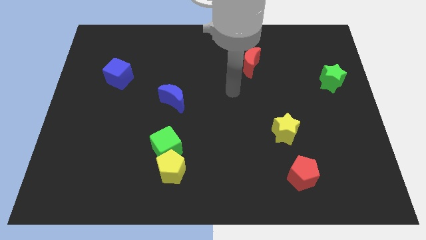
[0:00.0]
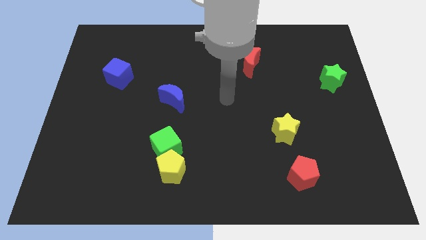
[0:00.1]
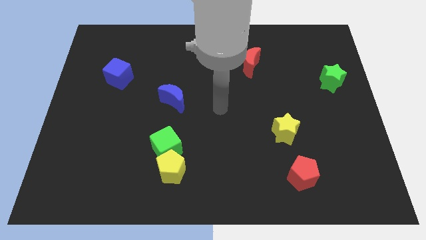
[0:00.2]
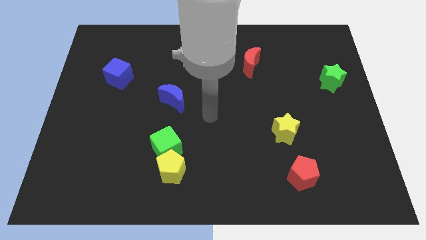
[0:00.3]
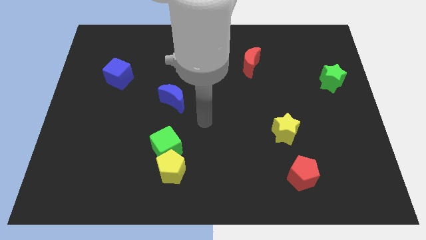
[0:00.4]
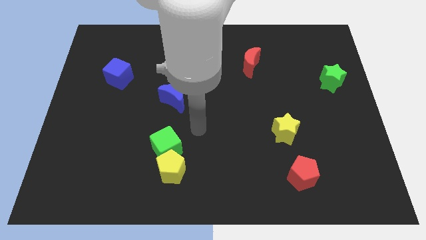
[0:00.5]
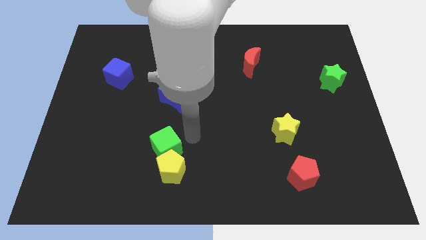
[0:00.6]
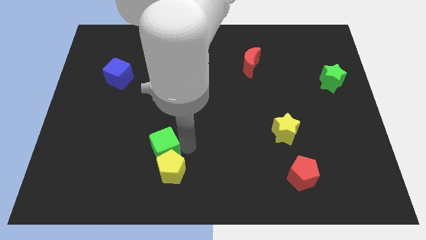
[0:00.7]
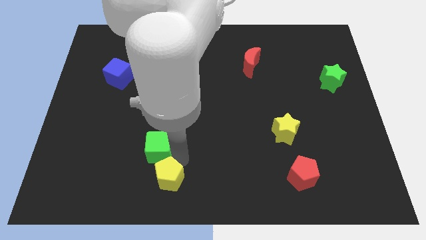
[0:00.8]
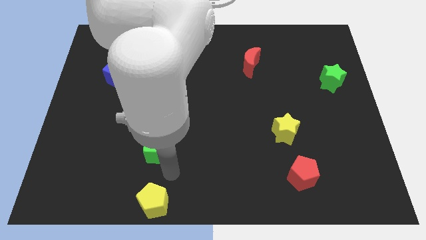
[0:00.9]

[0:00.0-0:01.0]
pull the green cube apart from the yellow pentagon

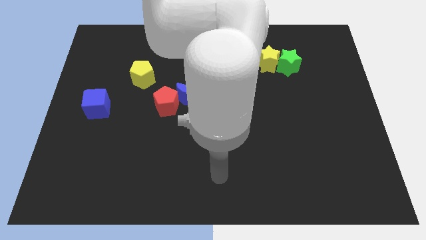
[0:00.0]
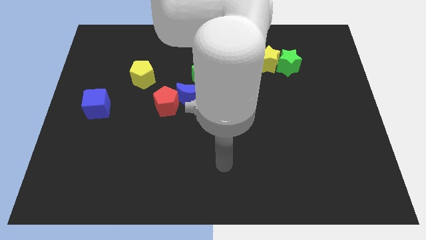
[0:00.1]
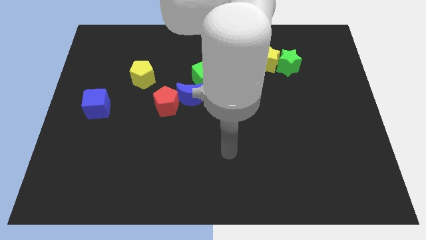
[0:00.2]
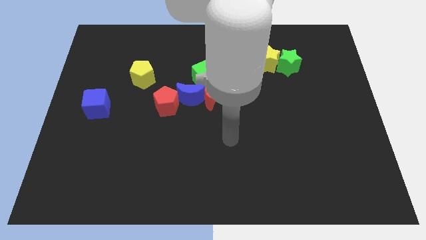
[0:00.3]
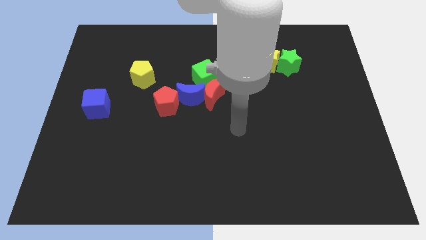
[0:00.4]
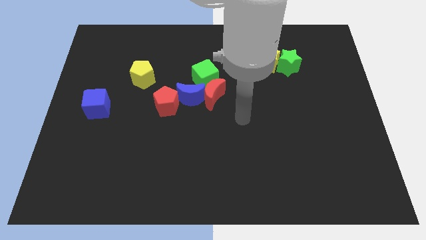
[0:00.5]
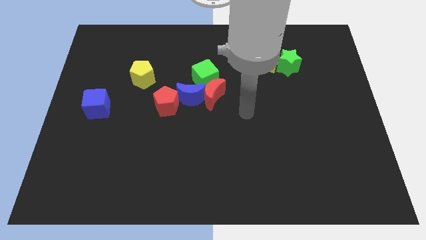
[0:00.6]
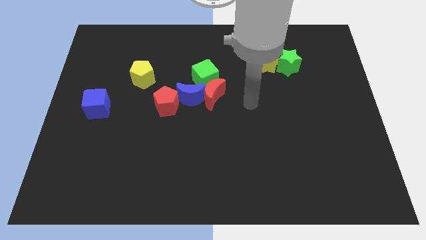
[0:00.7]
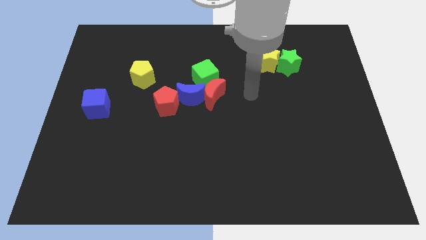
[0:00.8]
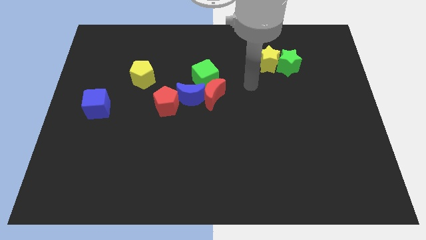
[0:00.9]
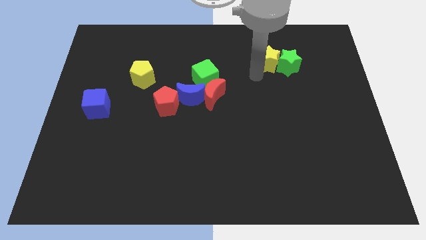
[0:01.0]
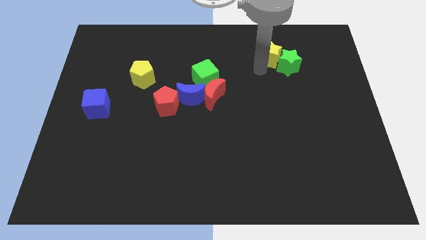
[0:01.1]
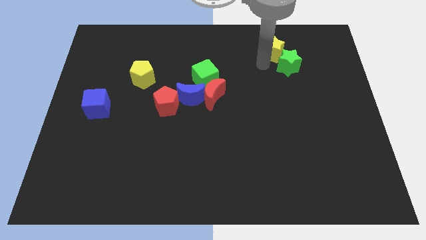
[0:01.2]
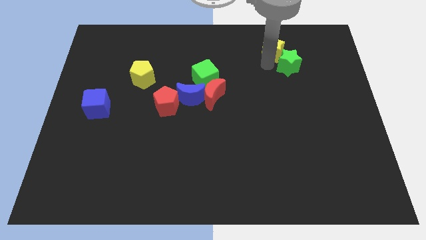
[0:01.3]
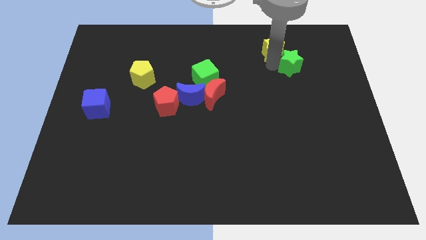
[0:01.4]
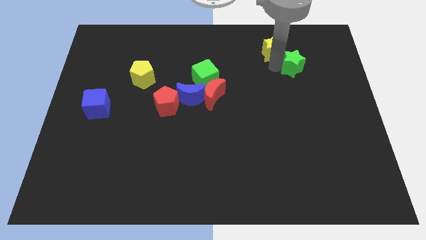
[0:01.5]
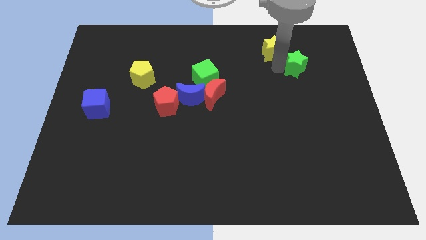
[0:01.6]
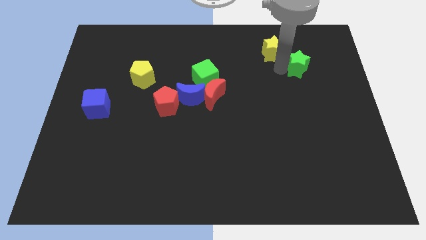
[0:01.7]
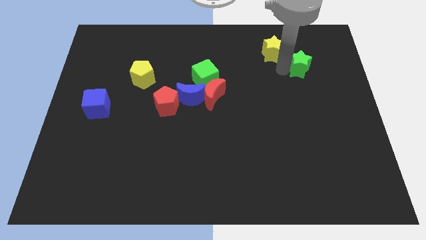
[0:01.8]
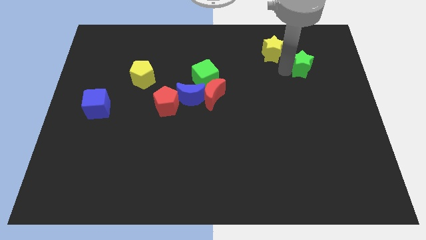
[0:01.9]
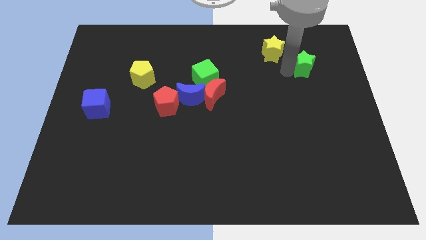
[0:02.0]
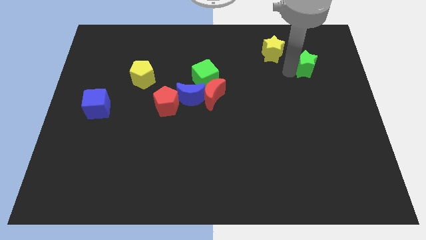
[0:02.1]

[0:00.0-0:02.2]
separate the green star from the yellow star

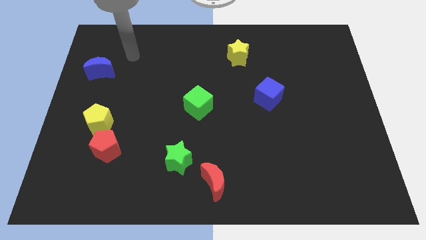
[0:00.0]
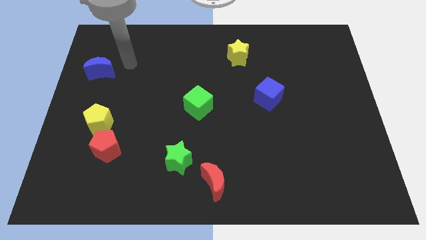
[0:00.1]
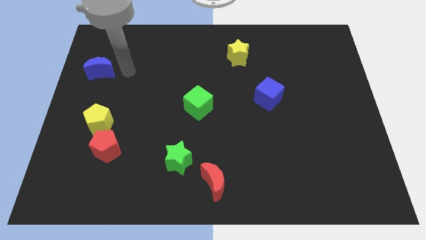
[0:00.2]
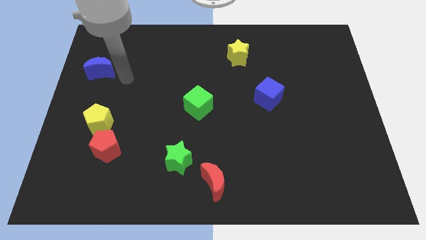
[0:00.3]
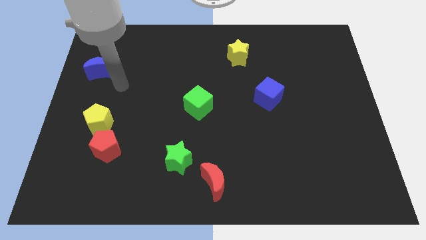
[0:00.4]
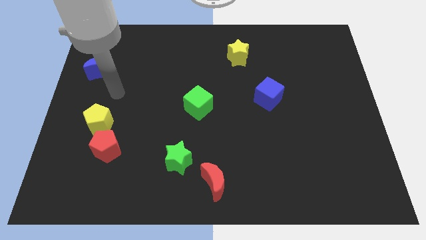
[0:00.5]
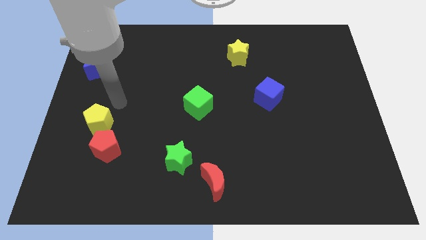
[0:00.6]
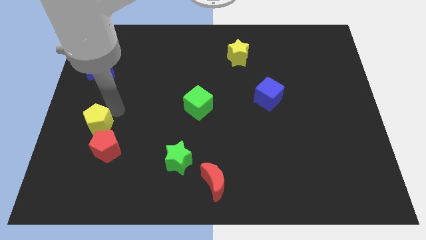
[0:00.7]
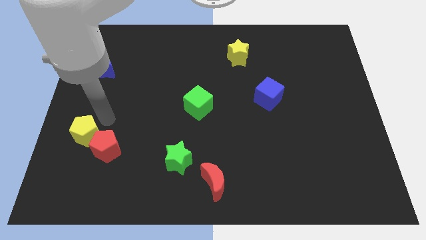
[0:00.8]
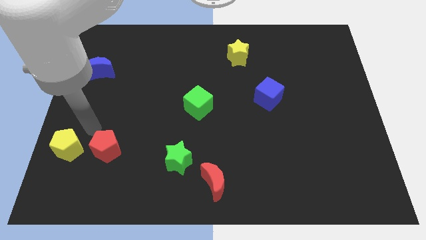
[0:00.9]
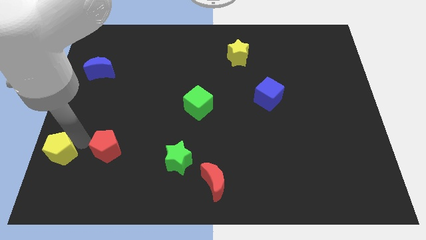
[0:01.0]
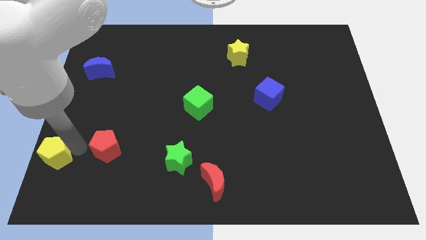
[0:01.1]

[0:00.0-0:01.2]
pull the red pentagon apart from the yellow pentagon

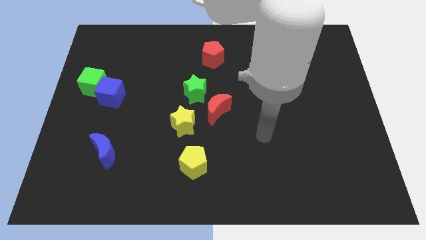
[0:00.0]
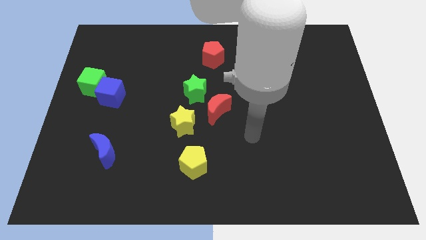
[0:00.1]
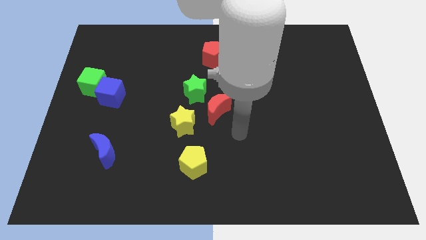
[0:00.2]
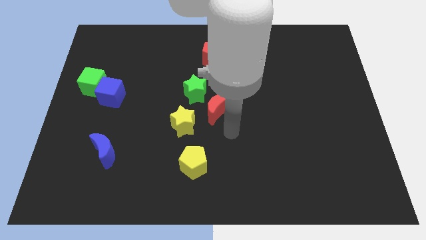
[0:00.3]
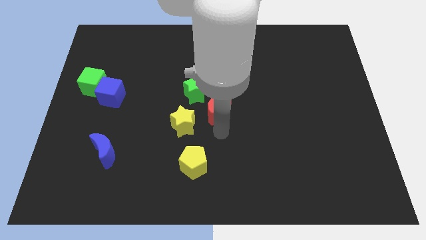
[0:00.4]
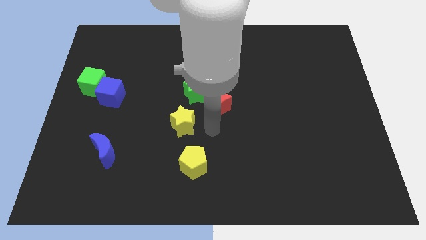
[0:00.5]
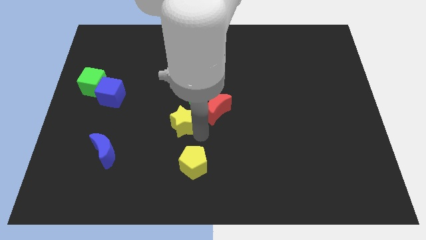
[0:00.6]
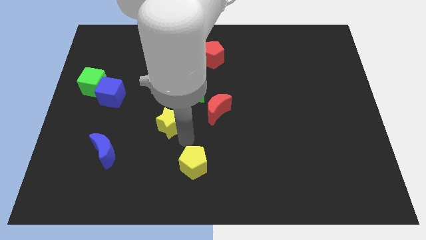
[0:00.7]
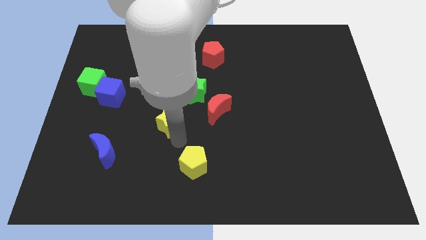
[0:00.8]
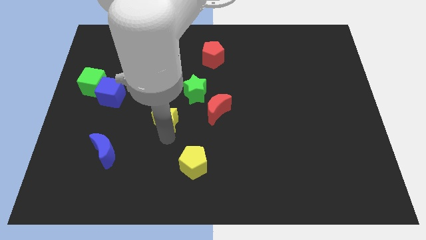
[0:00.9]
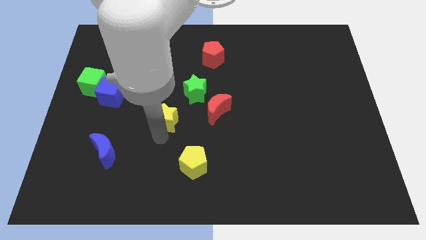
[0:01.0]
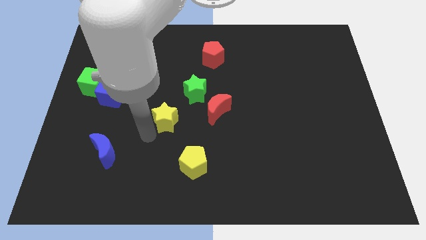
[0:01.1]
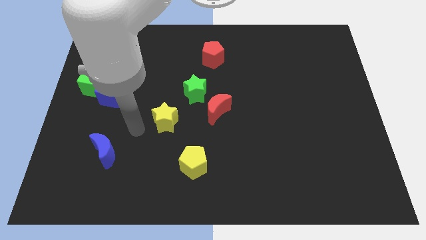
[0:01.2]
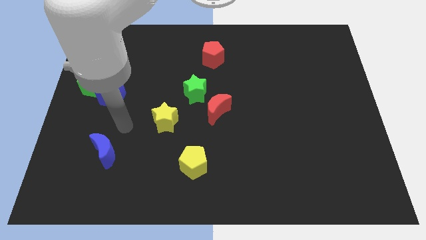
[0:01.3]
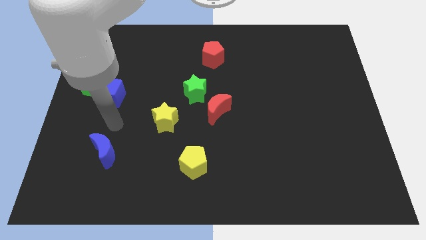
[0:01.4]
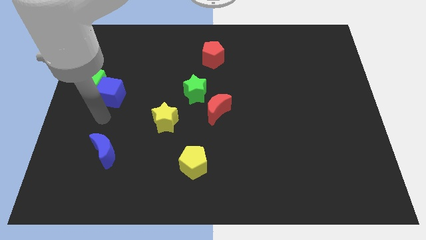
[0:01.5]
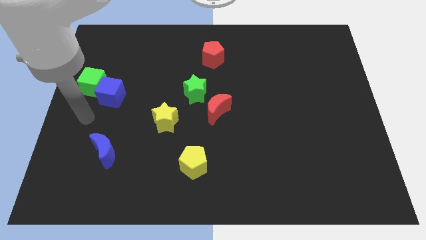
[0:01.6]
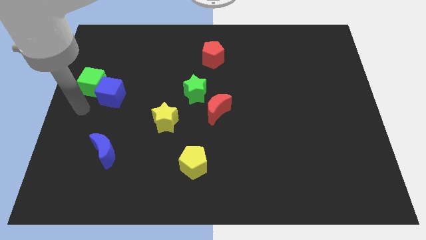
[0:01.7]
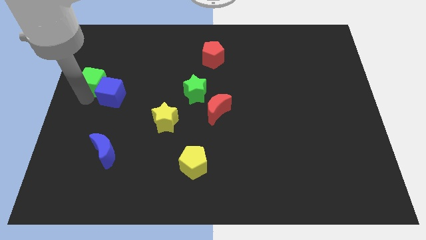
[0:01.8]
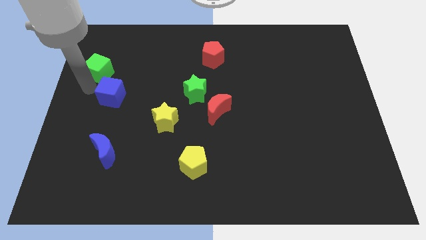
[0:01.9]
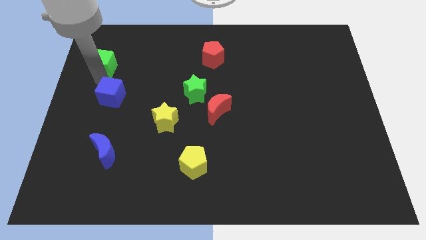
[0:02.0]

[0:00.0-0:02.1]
move the blue cube away from the green cube

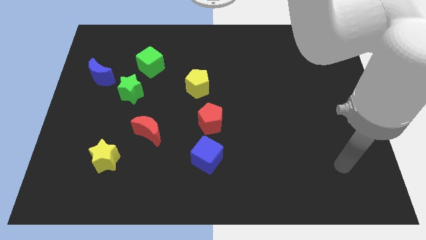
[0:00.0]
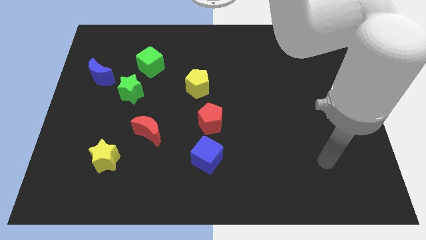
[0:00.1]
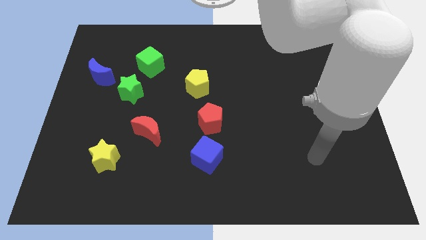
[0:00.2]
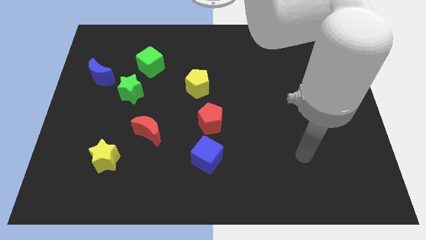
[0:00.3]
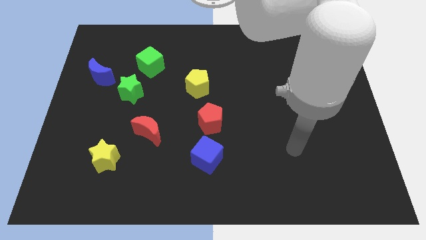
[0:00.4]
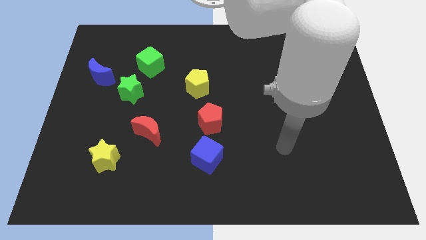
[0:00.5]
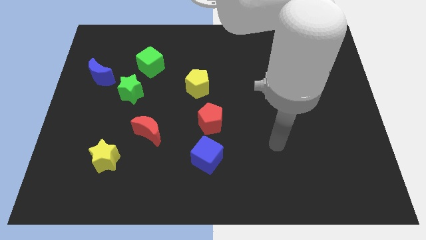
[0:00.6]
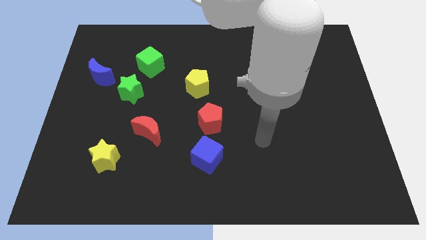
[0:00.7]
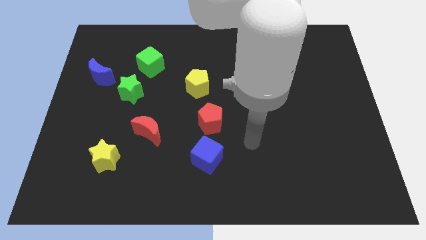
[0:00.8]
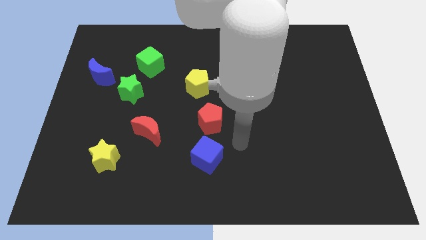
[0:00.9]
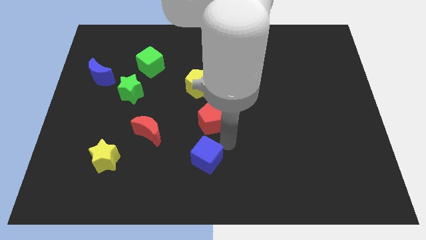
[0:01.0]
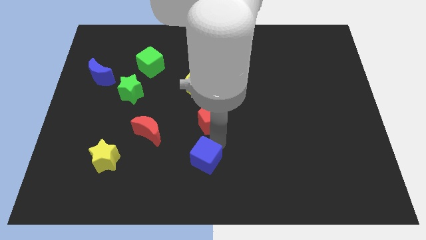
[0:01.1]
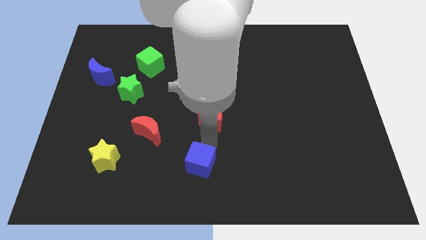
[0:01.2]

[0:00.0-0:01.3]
pull the red pentagon apart from the blue cube

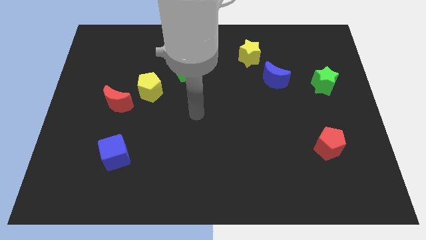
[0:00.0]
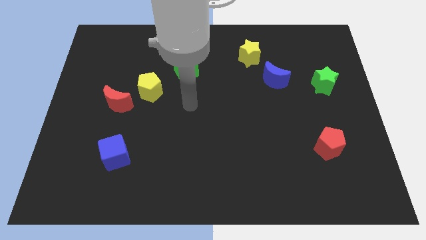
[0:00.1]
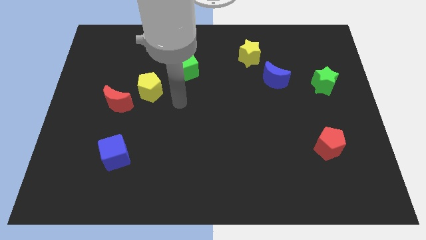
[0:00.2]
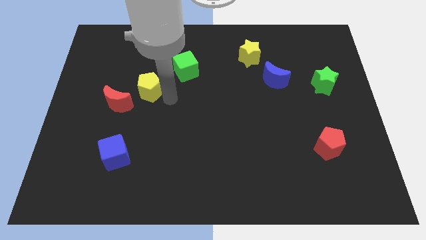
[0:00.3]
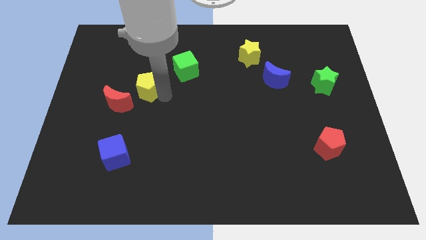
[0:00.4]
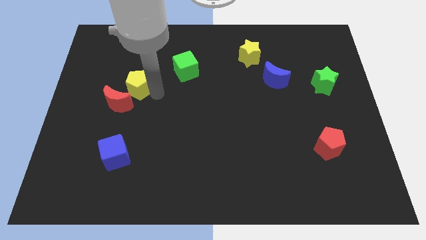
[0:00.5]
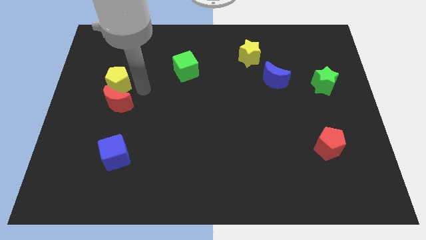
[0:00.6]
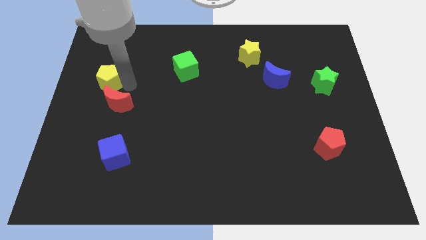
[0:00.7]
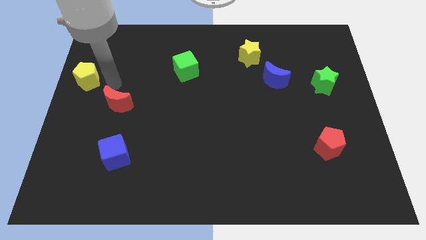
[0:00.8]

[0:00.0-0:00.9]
separate the red moon from the yellow pentagon

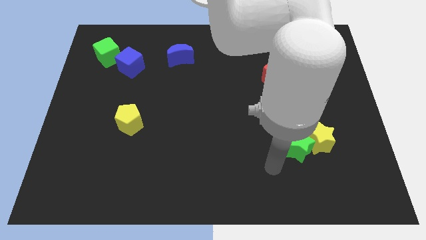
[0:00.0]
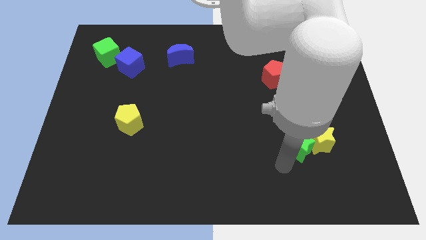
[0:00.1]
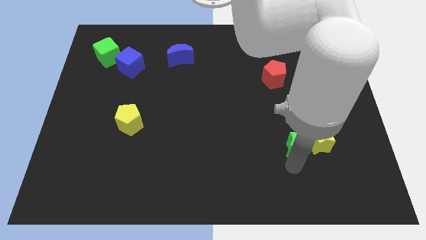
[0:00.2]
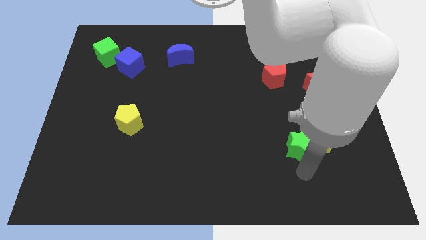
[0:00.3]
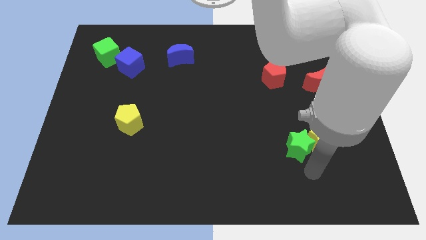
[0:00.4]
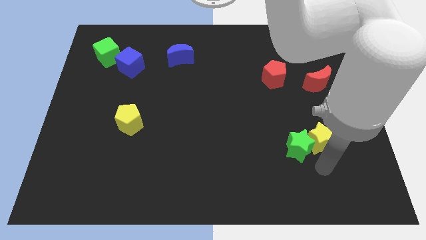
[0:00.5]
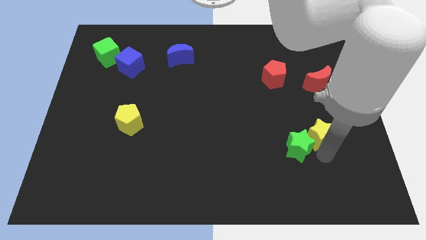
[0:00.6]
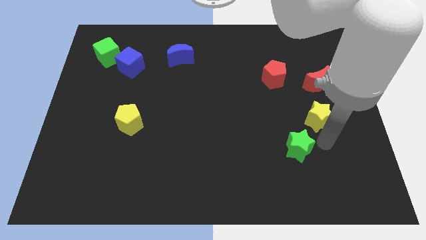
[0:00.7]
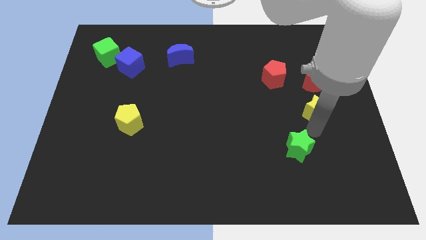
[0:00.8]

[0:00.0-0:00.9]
pull the green star apart from the yellow star
